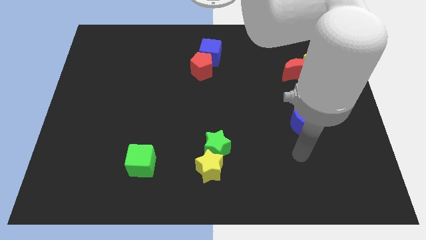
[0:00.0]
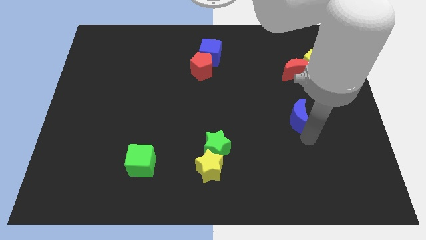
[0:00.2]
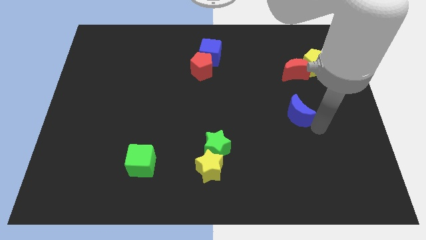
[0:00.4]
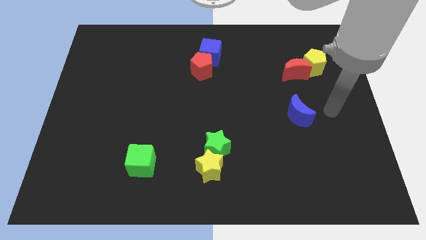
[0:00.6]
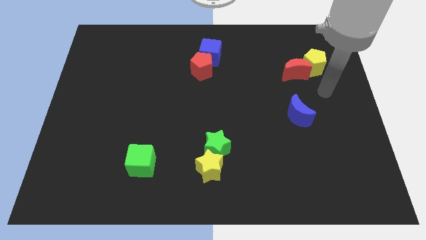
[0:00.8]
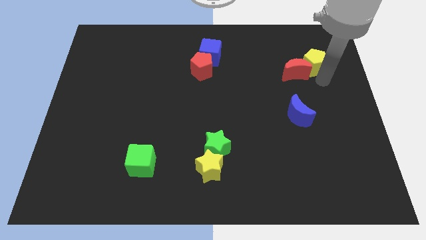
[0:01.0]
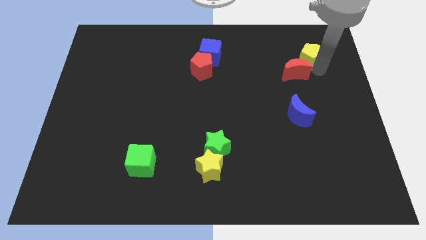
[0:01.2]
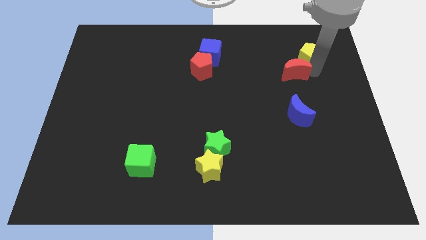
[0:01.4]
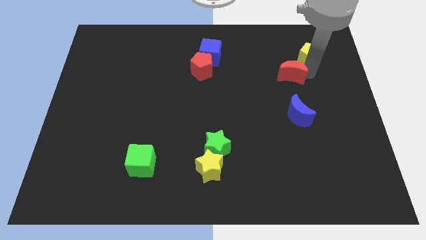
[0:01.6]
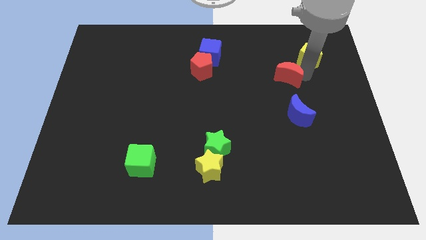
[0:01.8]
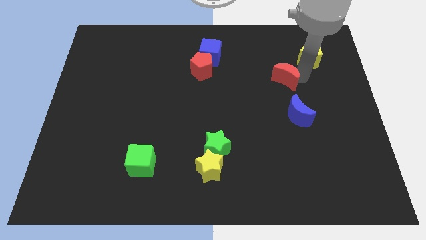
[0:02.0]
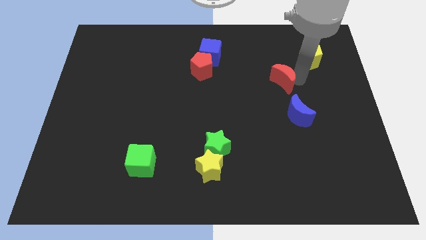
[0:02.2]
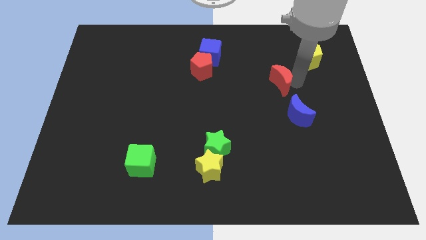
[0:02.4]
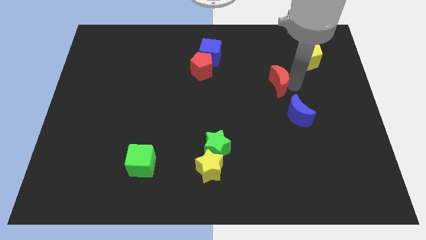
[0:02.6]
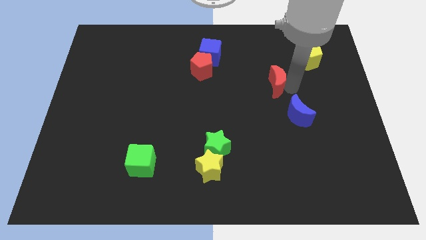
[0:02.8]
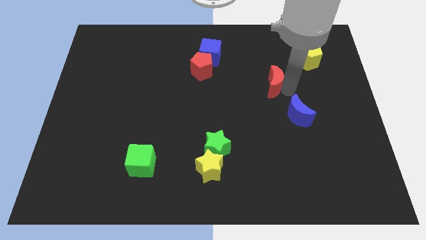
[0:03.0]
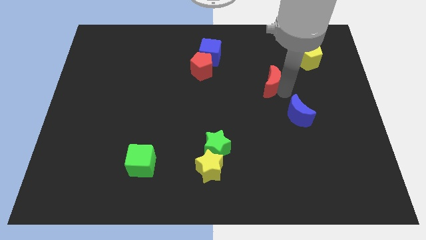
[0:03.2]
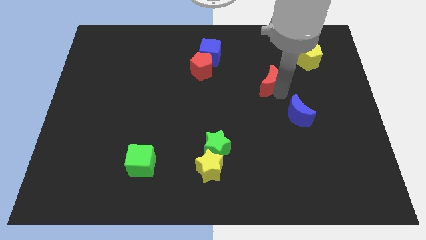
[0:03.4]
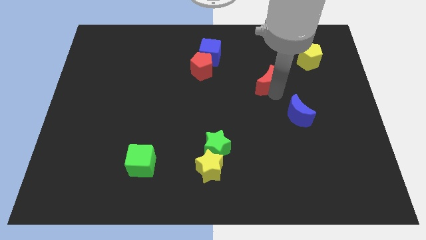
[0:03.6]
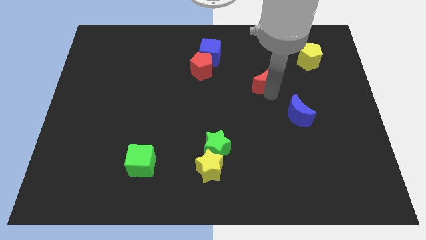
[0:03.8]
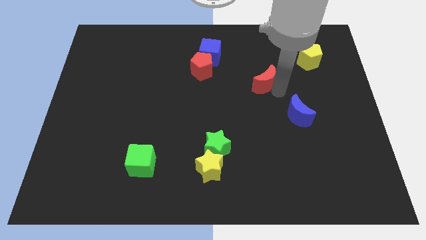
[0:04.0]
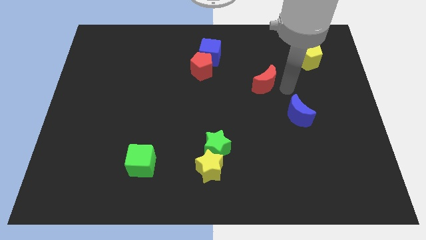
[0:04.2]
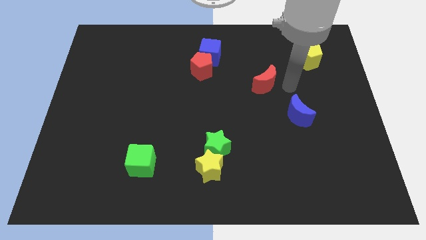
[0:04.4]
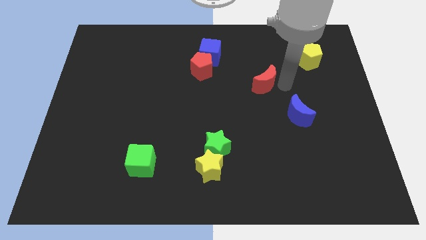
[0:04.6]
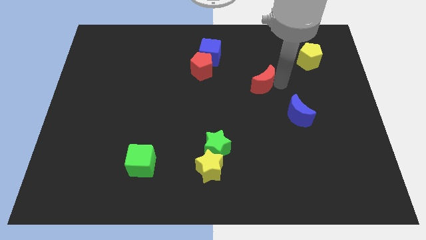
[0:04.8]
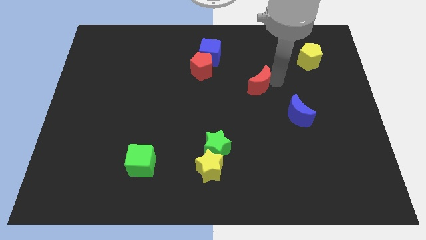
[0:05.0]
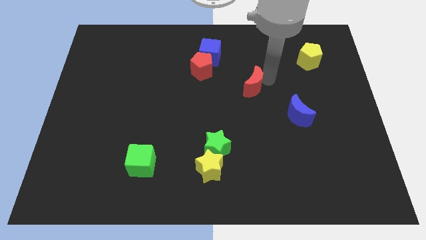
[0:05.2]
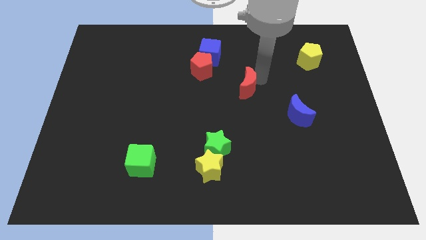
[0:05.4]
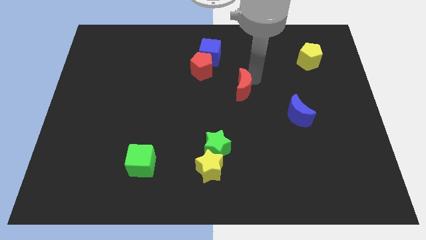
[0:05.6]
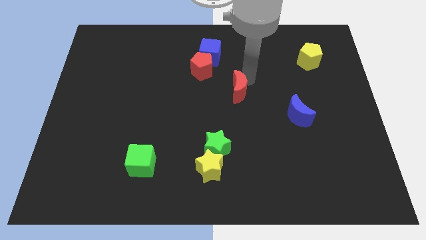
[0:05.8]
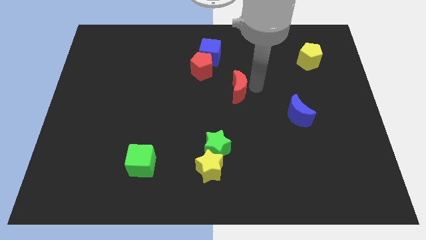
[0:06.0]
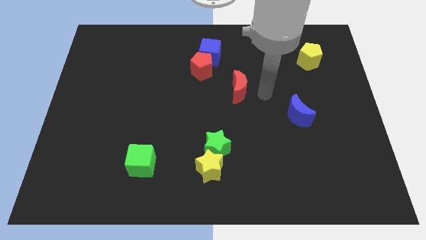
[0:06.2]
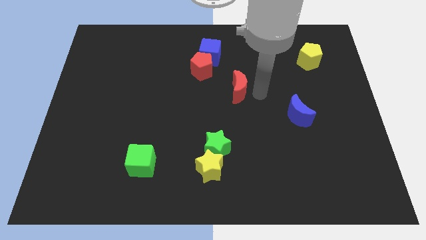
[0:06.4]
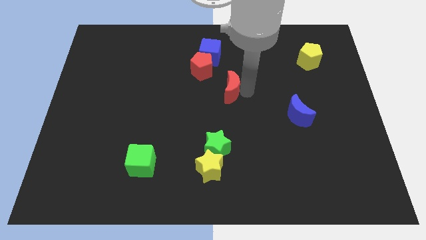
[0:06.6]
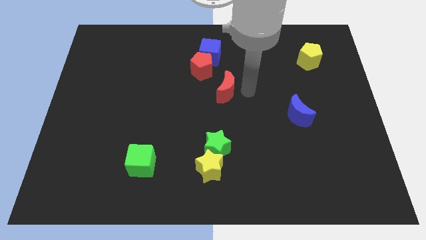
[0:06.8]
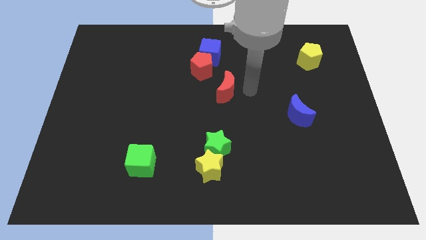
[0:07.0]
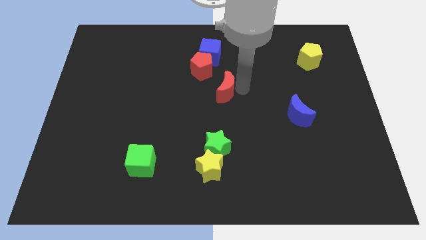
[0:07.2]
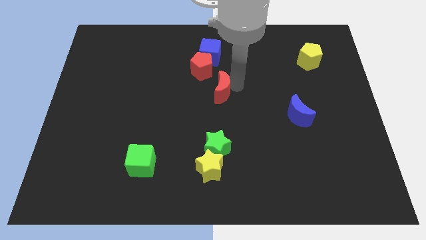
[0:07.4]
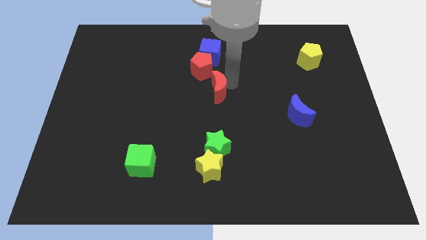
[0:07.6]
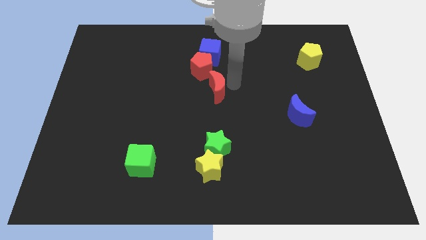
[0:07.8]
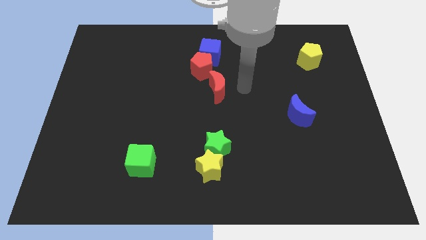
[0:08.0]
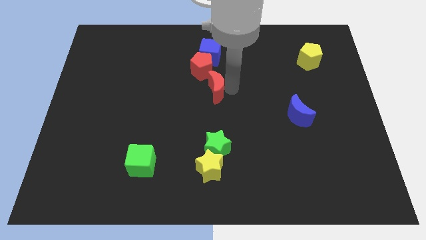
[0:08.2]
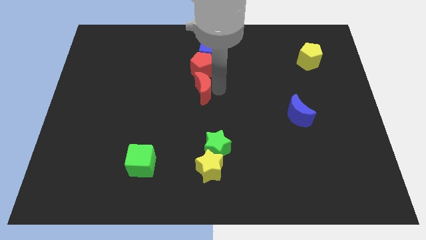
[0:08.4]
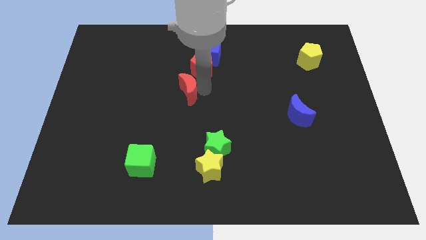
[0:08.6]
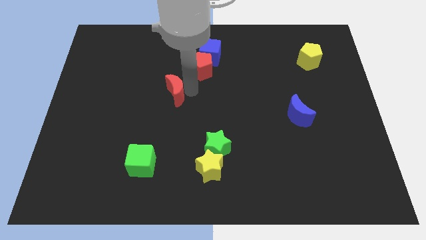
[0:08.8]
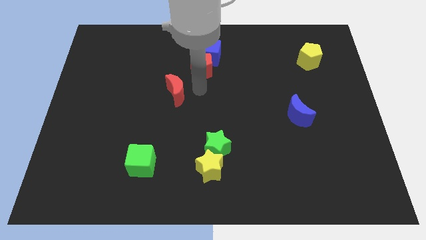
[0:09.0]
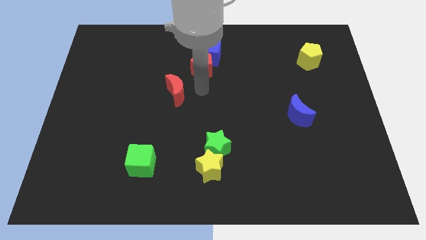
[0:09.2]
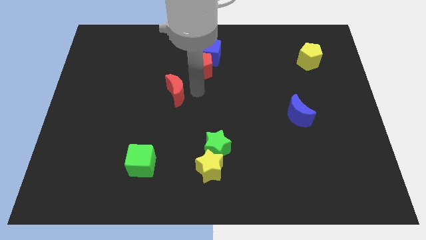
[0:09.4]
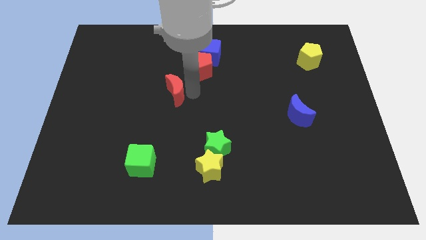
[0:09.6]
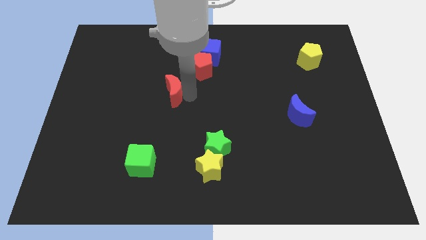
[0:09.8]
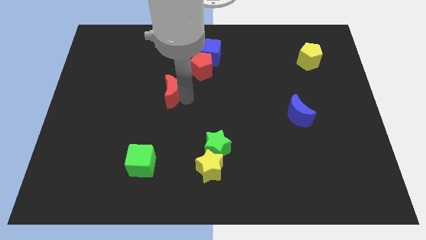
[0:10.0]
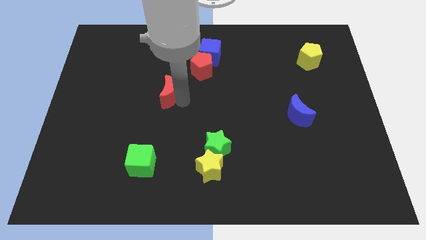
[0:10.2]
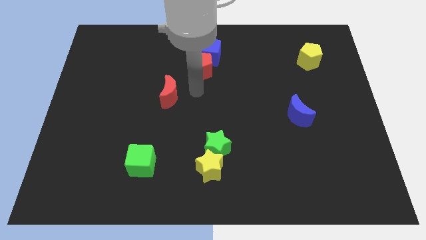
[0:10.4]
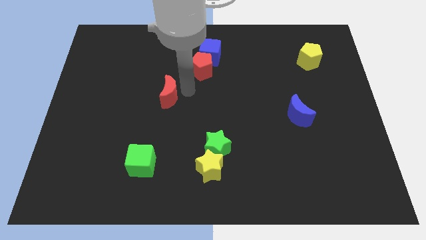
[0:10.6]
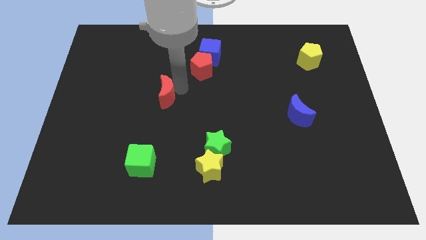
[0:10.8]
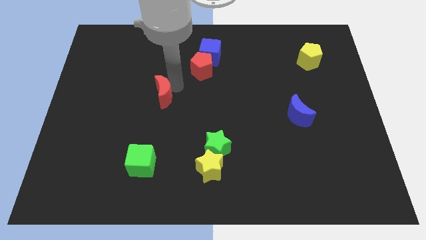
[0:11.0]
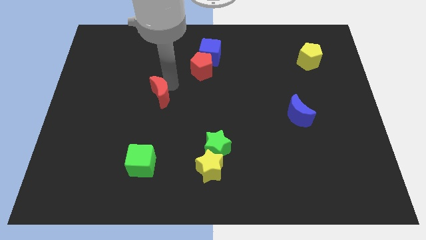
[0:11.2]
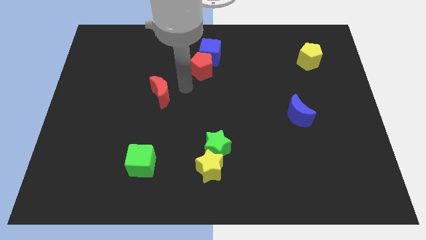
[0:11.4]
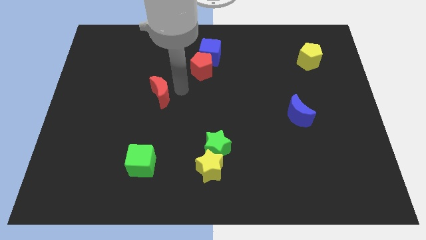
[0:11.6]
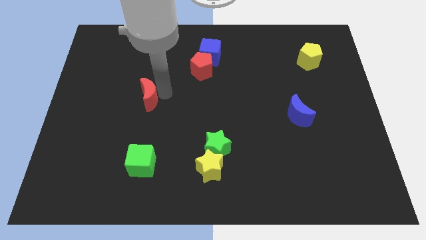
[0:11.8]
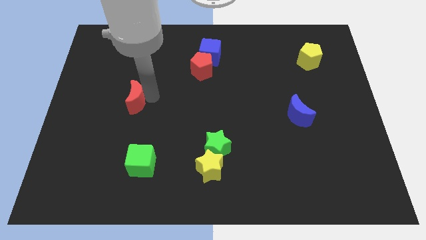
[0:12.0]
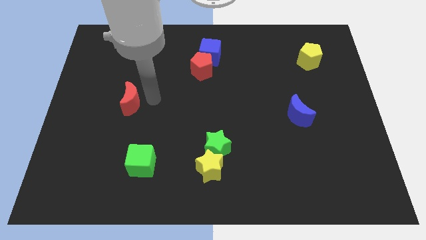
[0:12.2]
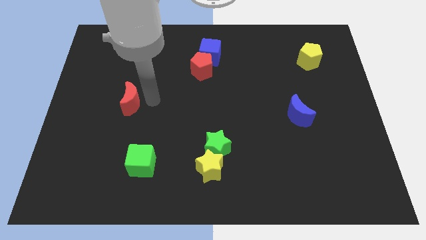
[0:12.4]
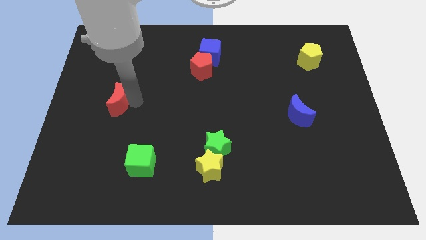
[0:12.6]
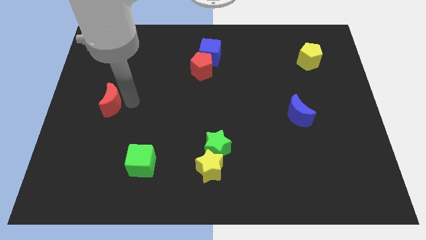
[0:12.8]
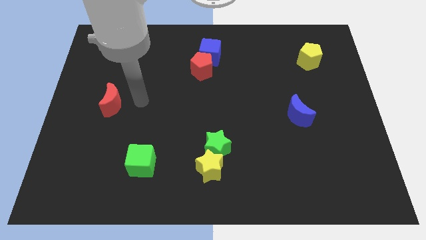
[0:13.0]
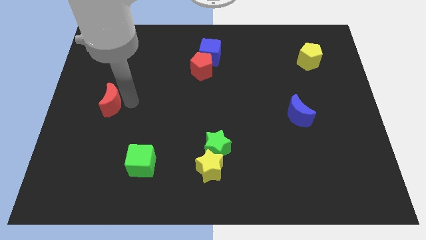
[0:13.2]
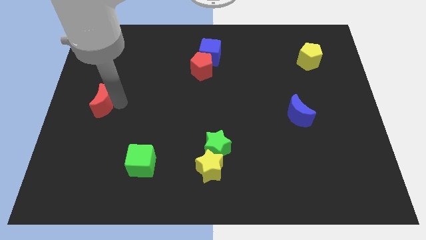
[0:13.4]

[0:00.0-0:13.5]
push the red moon to the left side of the board
